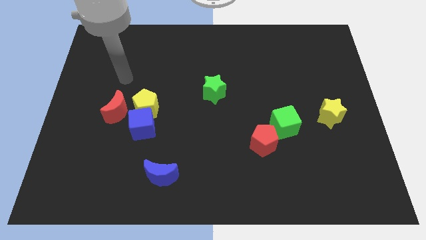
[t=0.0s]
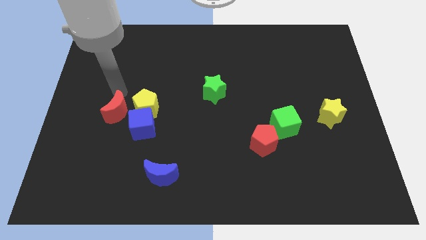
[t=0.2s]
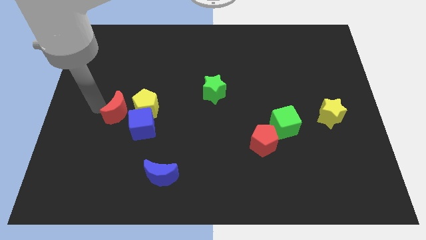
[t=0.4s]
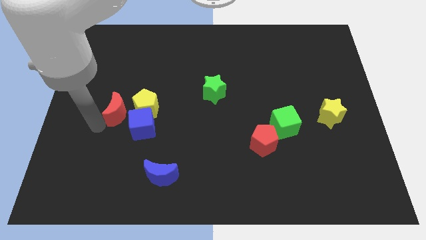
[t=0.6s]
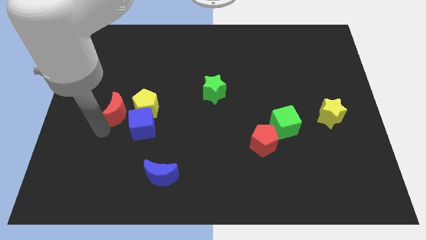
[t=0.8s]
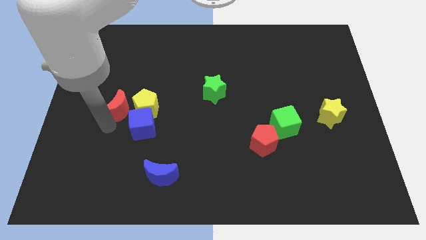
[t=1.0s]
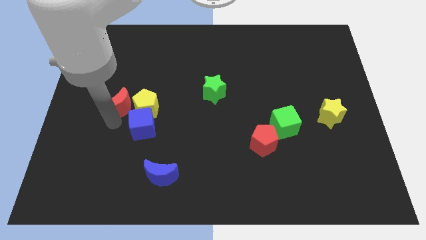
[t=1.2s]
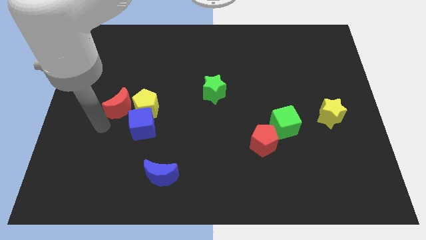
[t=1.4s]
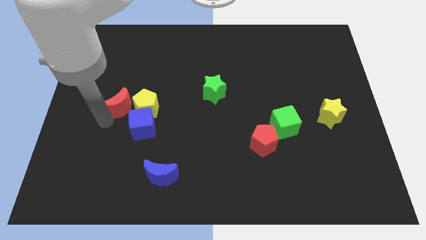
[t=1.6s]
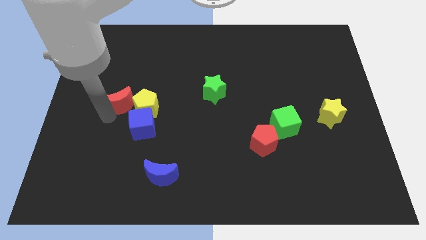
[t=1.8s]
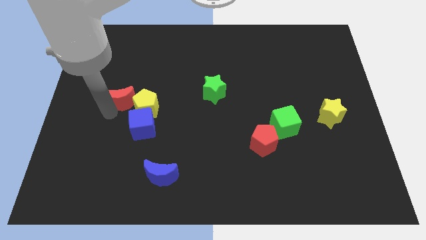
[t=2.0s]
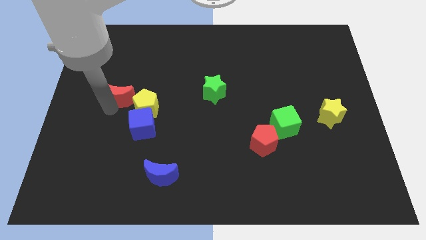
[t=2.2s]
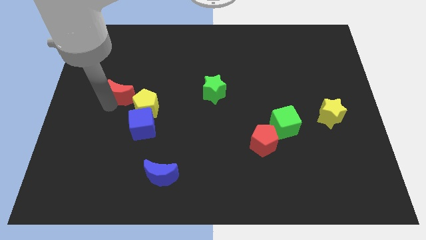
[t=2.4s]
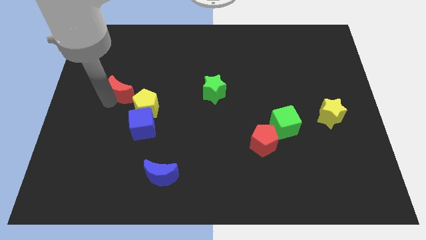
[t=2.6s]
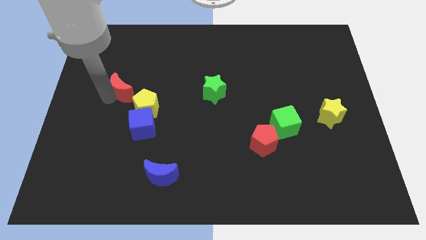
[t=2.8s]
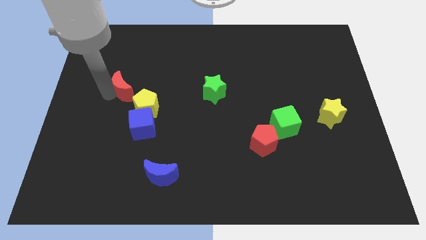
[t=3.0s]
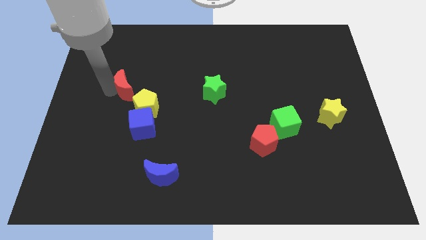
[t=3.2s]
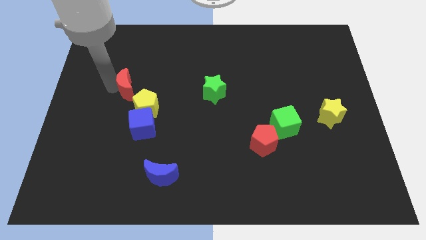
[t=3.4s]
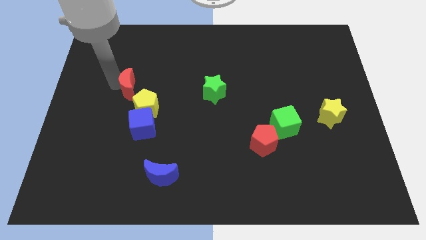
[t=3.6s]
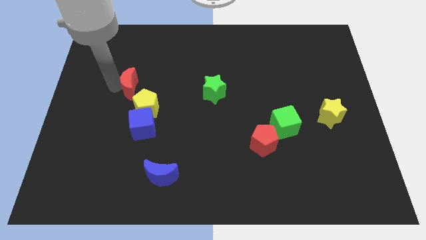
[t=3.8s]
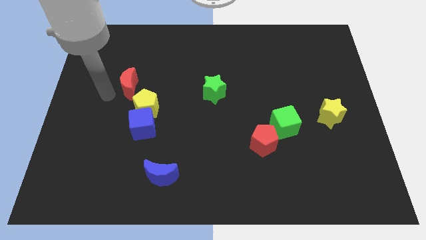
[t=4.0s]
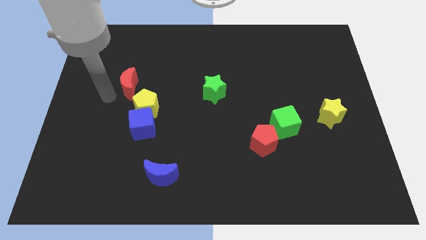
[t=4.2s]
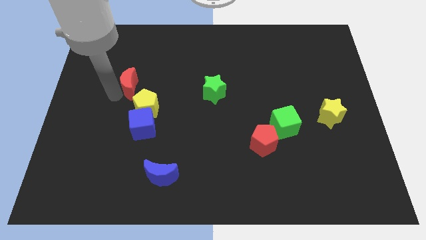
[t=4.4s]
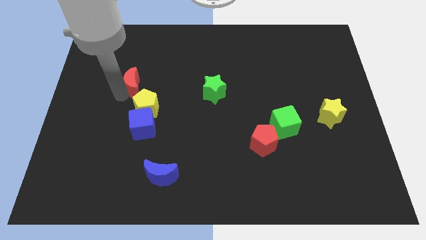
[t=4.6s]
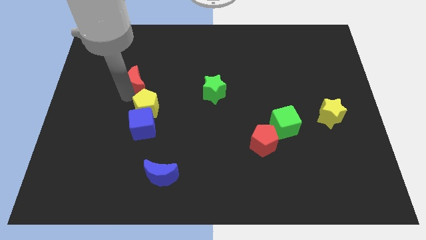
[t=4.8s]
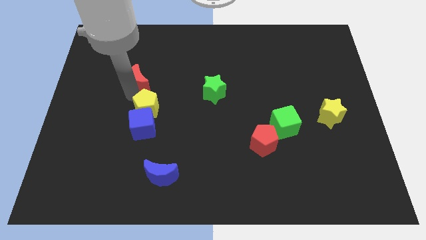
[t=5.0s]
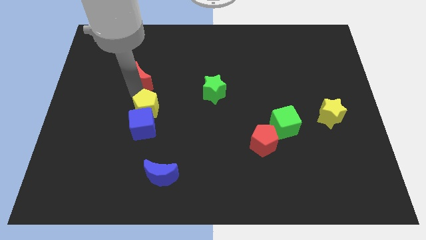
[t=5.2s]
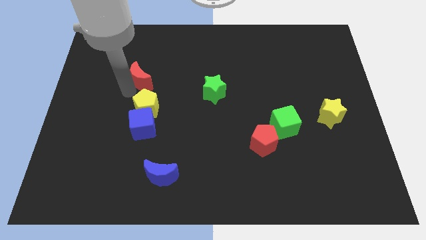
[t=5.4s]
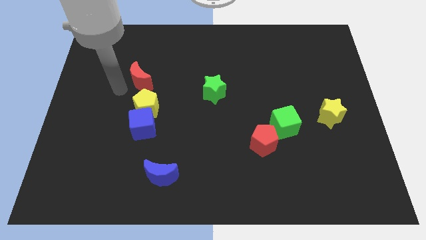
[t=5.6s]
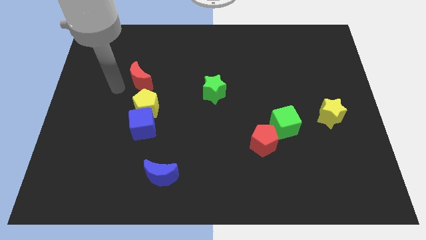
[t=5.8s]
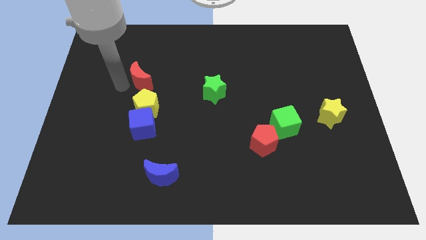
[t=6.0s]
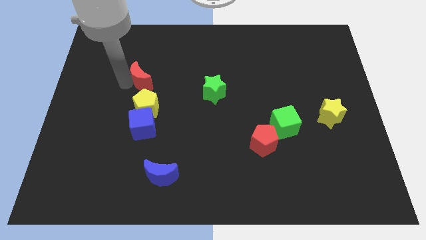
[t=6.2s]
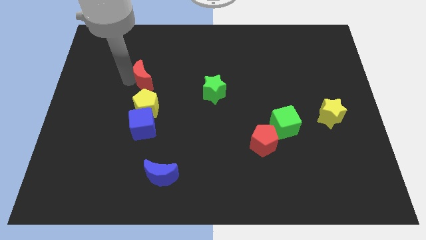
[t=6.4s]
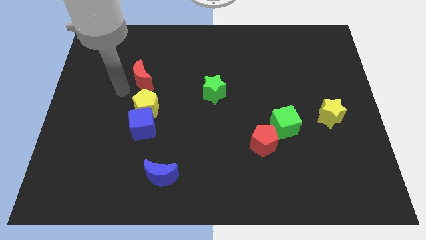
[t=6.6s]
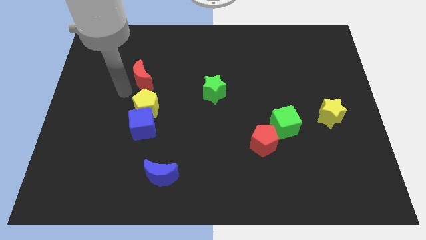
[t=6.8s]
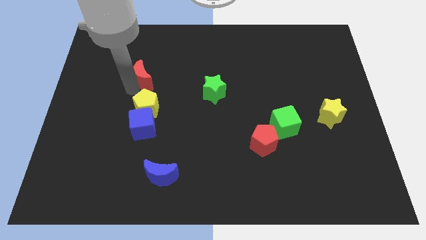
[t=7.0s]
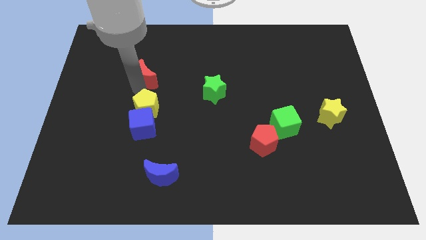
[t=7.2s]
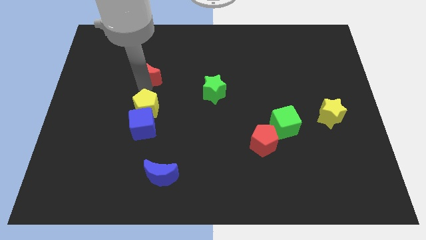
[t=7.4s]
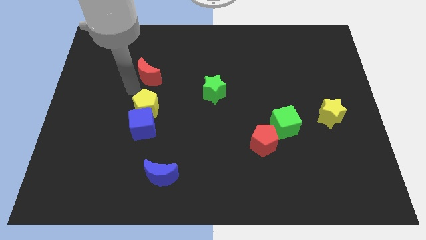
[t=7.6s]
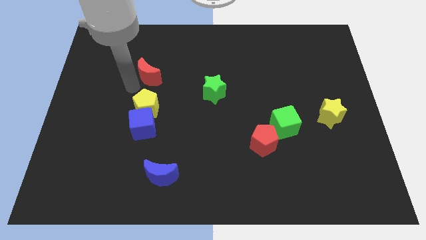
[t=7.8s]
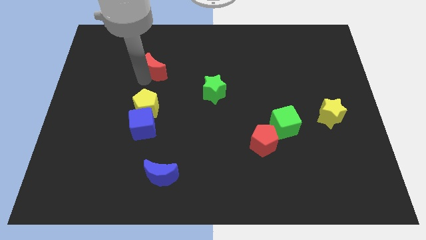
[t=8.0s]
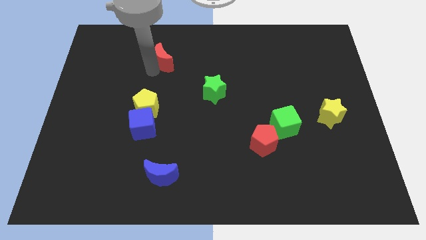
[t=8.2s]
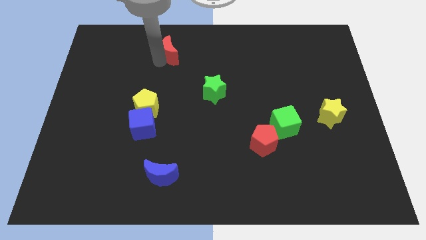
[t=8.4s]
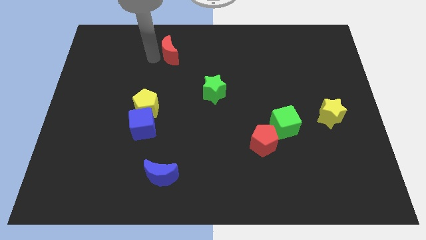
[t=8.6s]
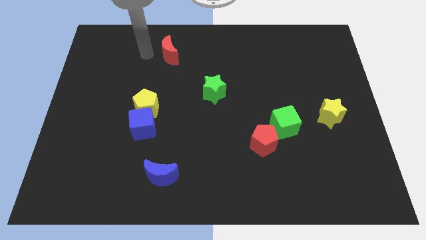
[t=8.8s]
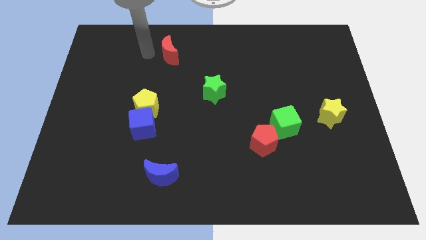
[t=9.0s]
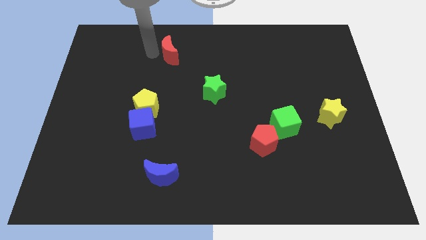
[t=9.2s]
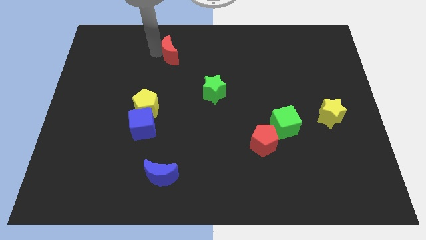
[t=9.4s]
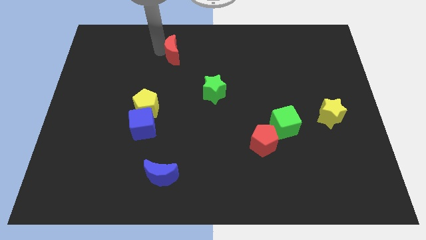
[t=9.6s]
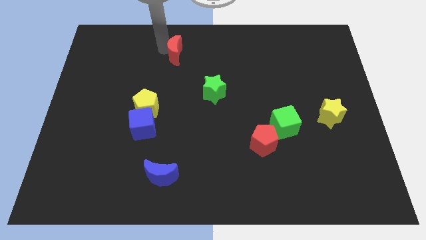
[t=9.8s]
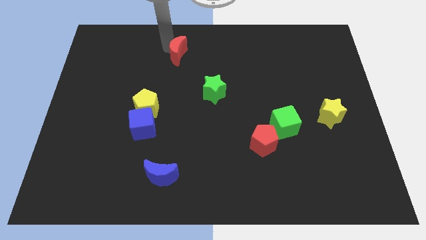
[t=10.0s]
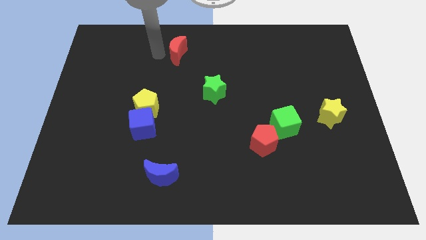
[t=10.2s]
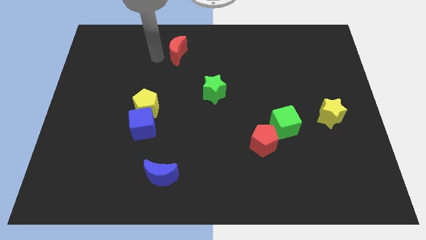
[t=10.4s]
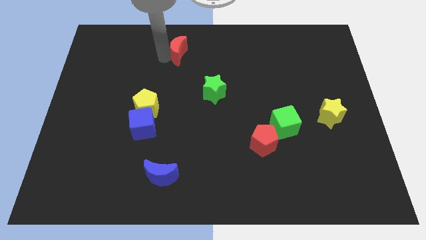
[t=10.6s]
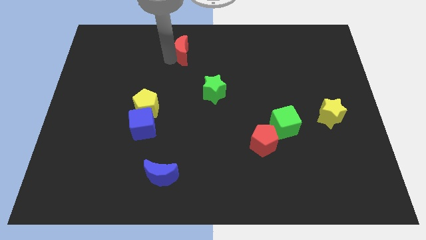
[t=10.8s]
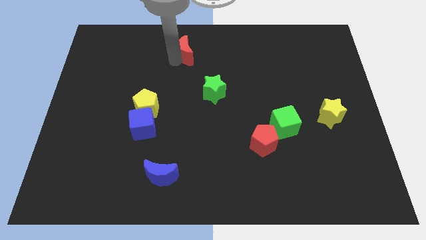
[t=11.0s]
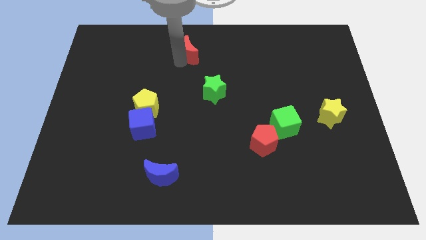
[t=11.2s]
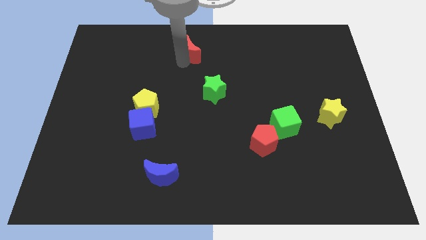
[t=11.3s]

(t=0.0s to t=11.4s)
push the red moon to the top side

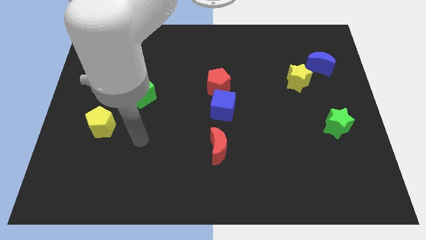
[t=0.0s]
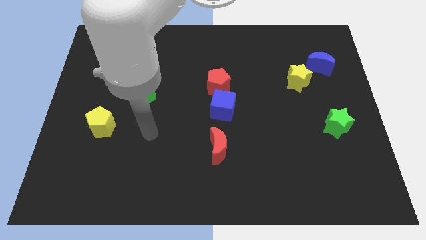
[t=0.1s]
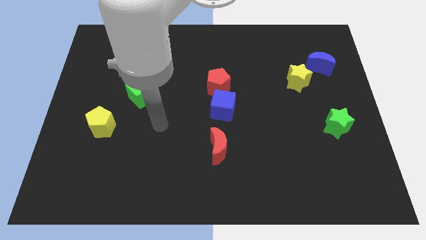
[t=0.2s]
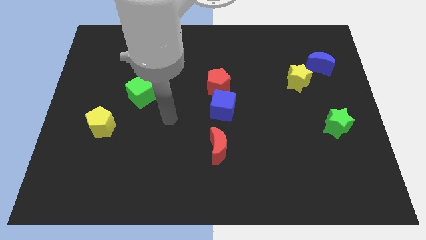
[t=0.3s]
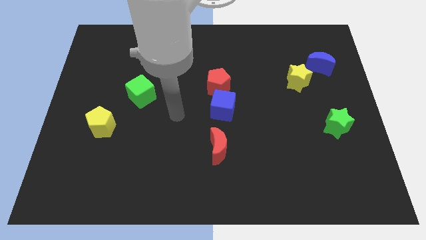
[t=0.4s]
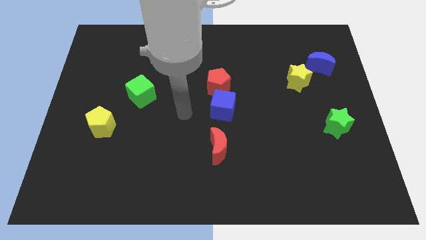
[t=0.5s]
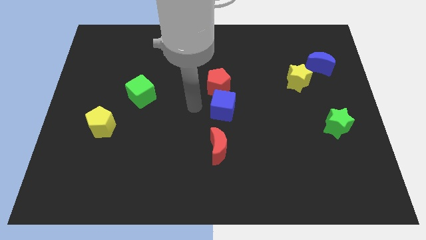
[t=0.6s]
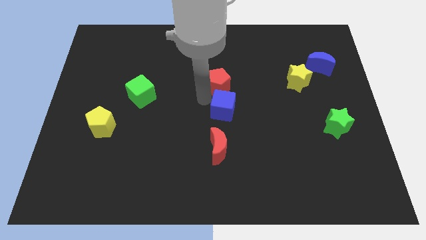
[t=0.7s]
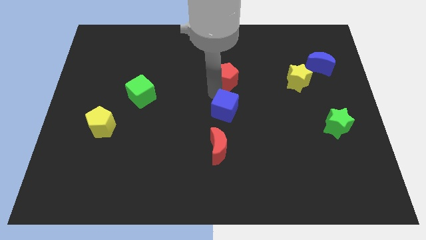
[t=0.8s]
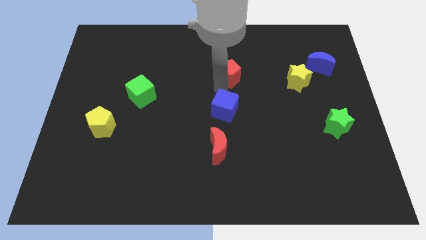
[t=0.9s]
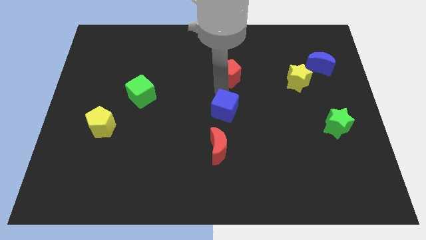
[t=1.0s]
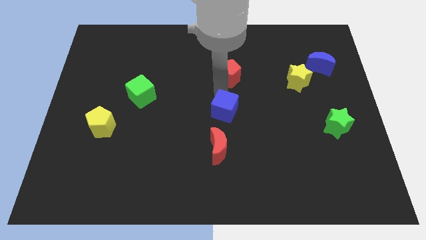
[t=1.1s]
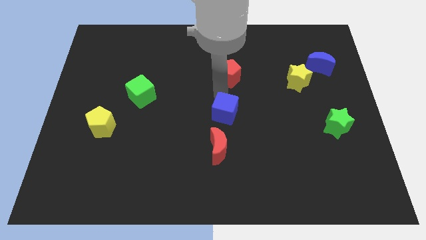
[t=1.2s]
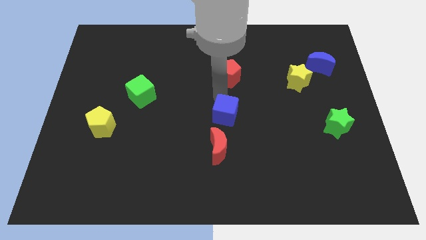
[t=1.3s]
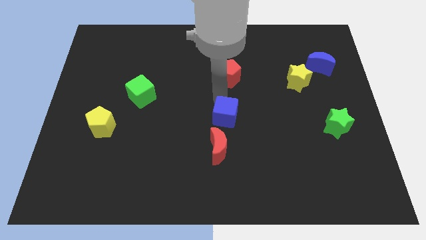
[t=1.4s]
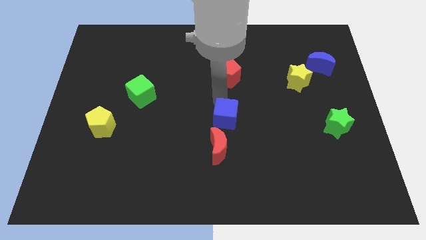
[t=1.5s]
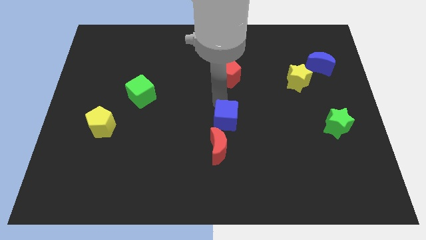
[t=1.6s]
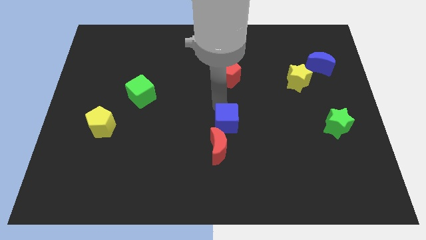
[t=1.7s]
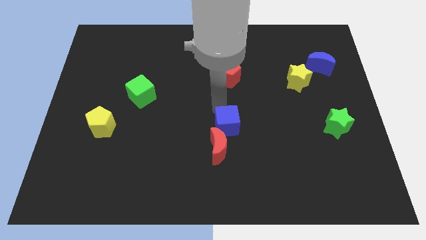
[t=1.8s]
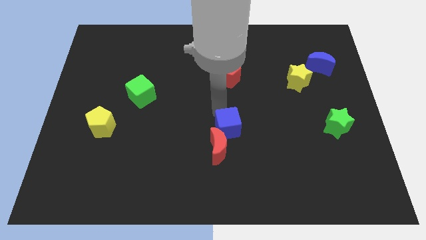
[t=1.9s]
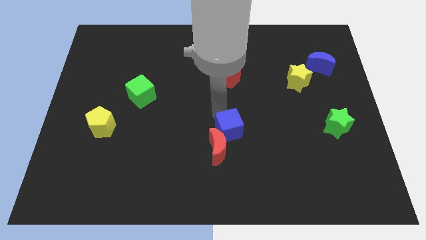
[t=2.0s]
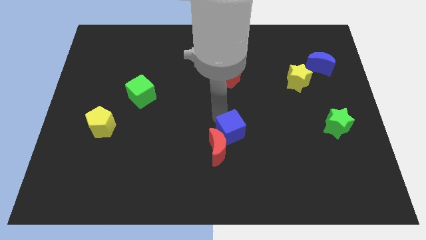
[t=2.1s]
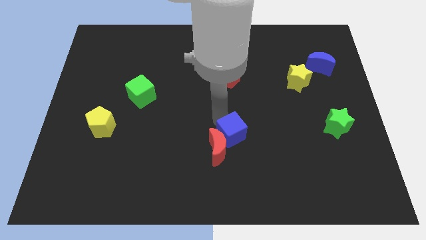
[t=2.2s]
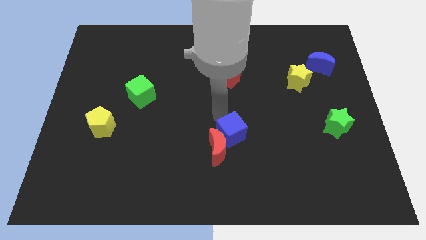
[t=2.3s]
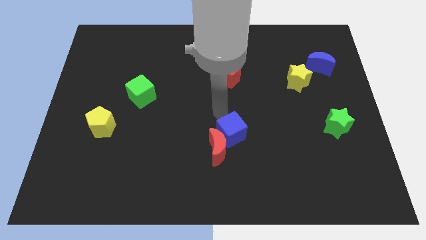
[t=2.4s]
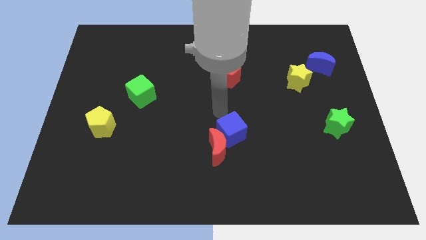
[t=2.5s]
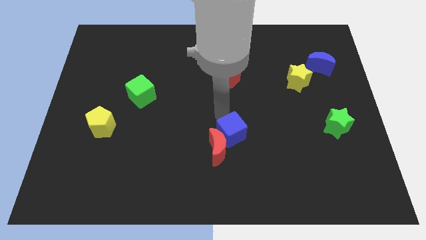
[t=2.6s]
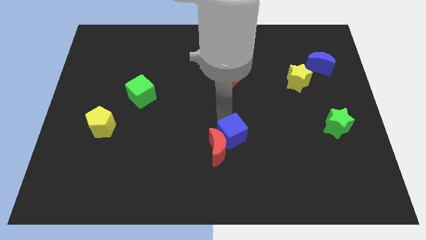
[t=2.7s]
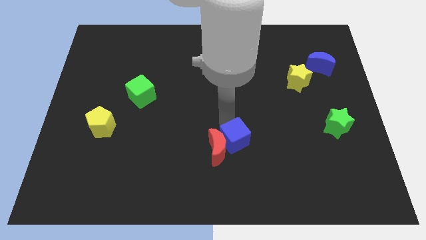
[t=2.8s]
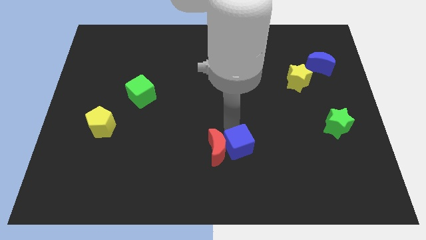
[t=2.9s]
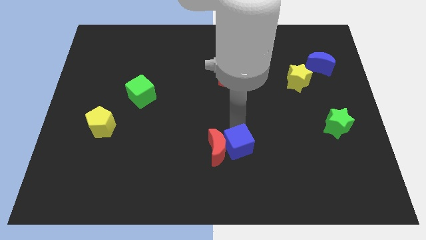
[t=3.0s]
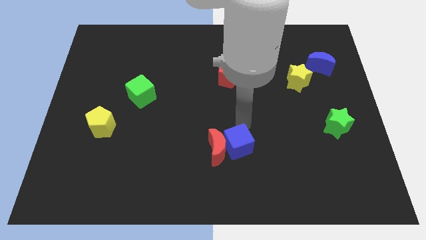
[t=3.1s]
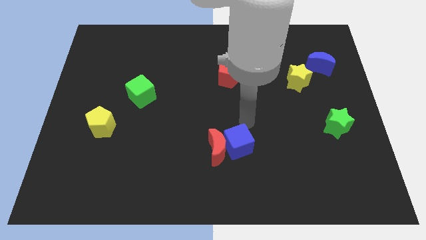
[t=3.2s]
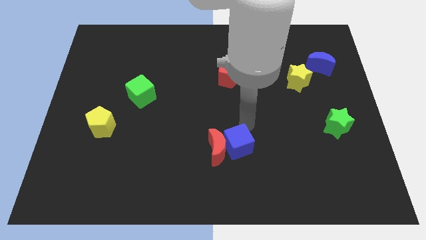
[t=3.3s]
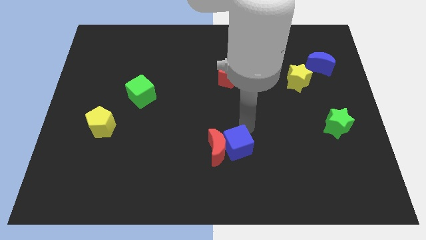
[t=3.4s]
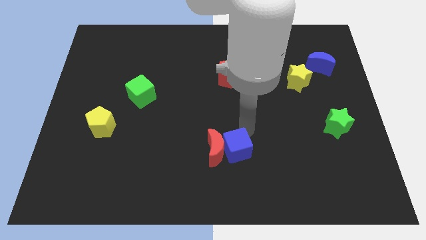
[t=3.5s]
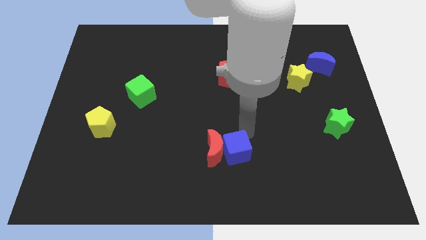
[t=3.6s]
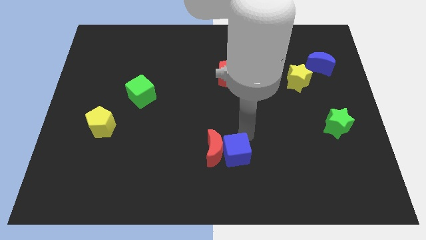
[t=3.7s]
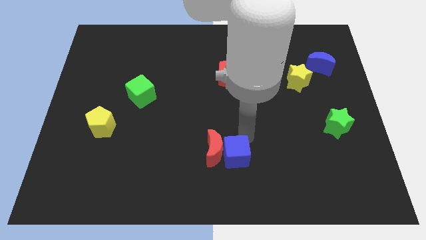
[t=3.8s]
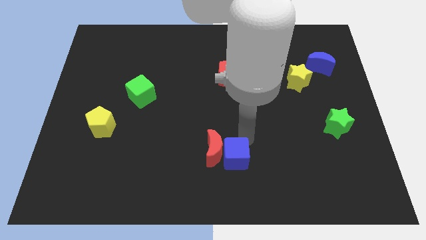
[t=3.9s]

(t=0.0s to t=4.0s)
move the blue cube to the bottom side
